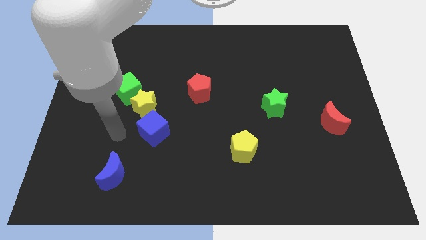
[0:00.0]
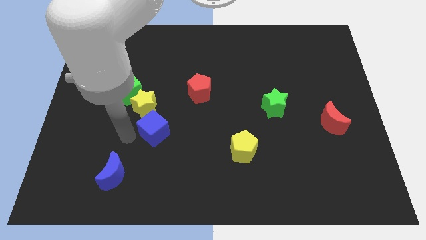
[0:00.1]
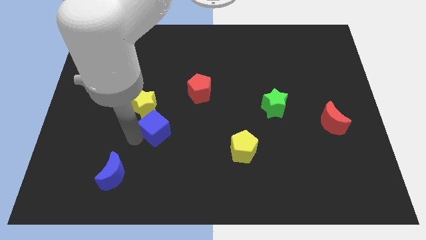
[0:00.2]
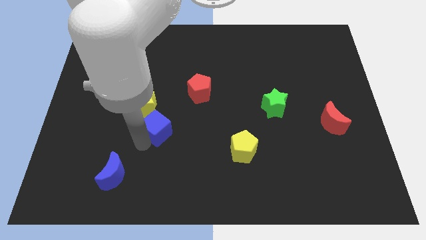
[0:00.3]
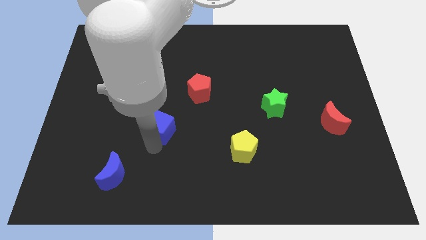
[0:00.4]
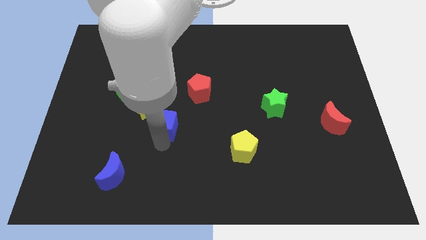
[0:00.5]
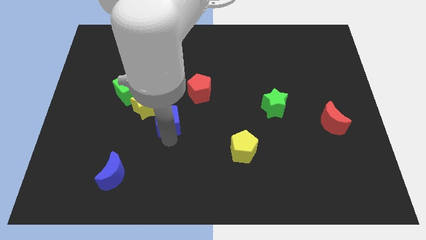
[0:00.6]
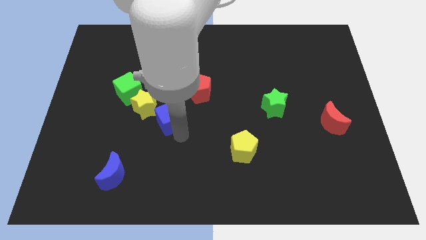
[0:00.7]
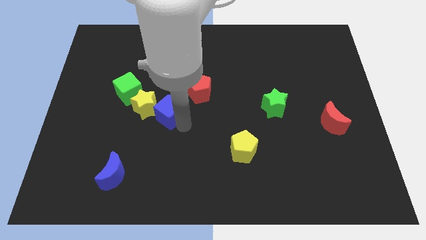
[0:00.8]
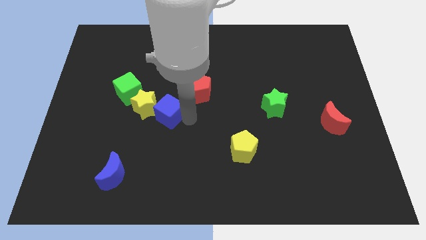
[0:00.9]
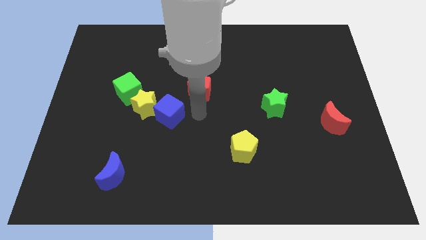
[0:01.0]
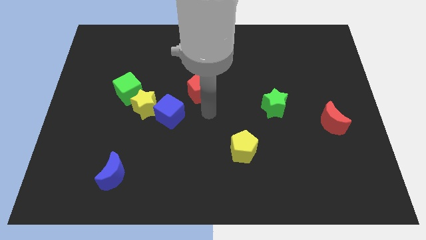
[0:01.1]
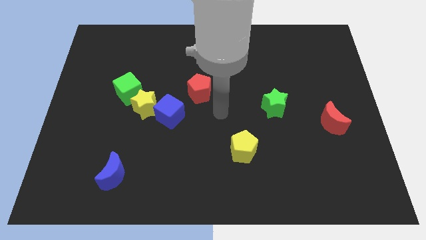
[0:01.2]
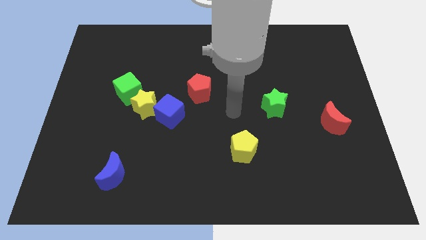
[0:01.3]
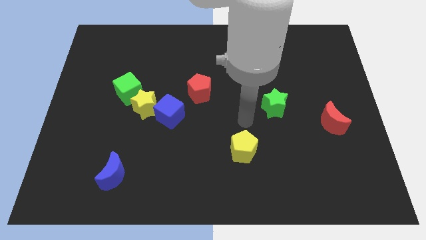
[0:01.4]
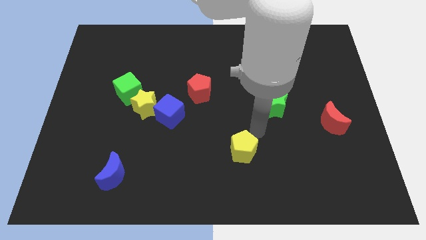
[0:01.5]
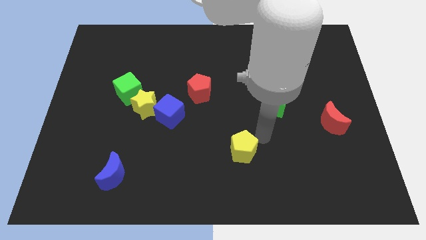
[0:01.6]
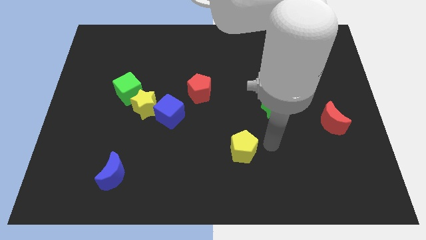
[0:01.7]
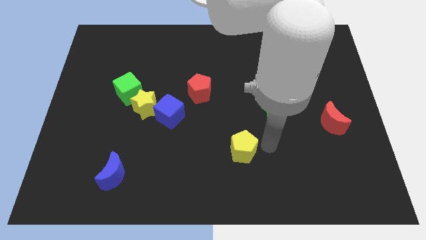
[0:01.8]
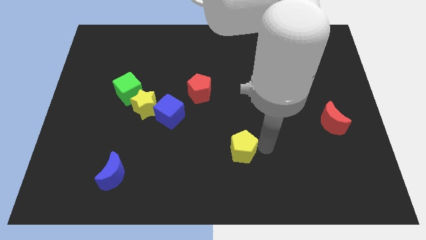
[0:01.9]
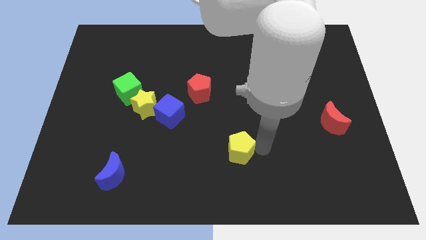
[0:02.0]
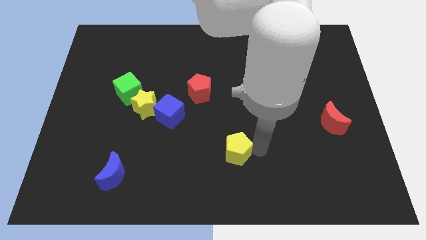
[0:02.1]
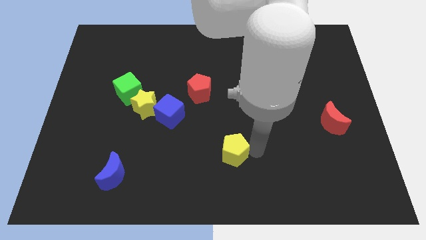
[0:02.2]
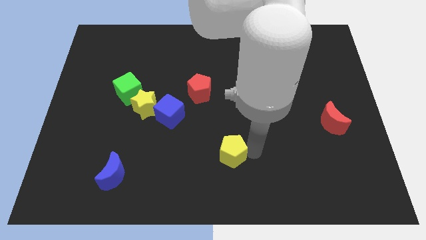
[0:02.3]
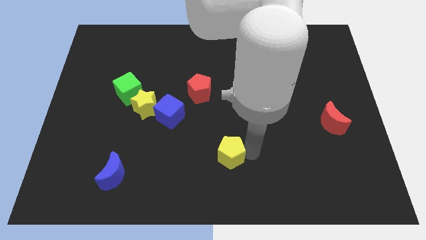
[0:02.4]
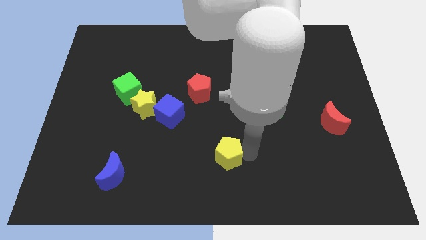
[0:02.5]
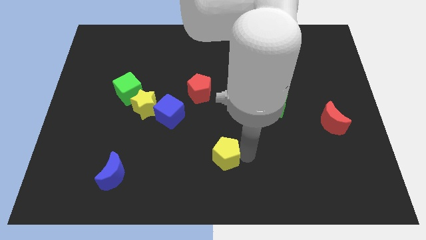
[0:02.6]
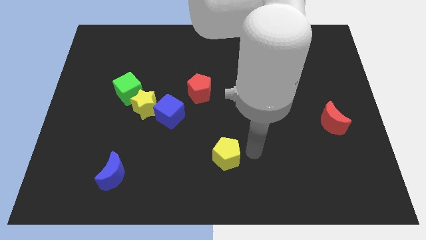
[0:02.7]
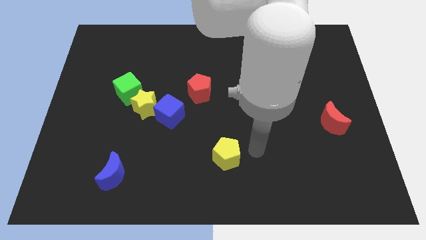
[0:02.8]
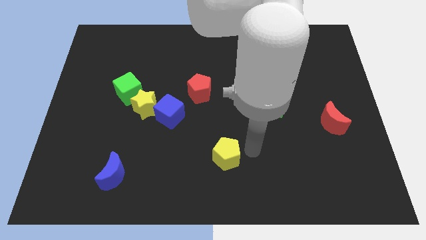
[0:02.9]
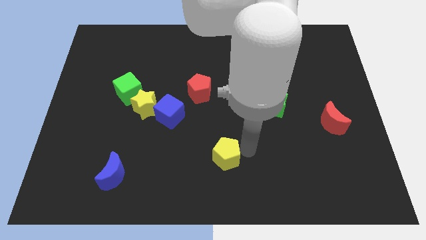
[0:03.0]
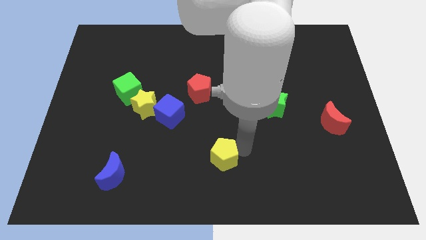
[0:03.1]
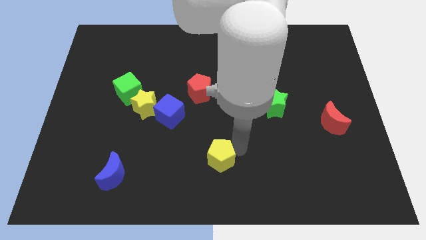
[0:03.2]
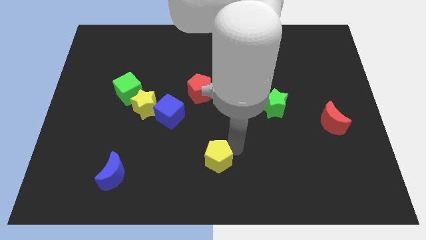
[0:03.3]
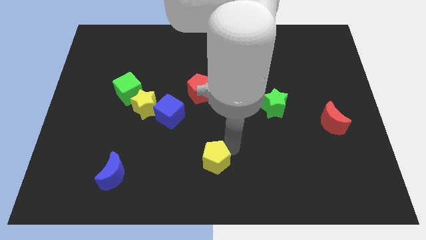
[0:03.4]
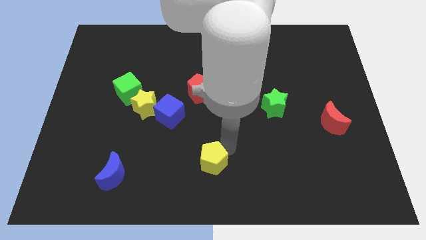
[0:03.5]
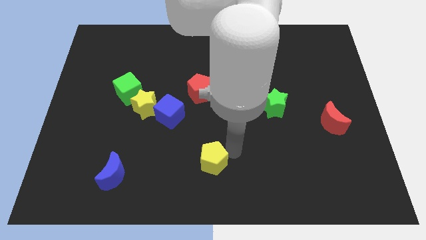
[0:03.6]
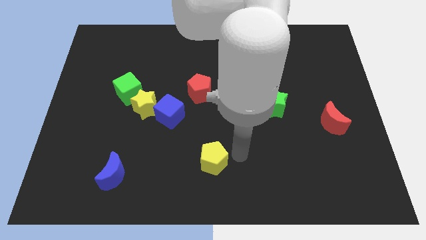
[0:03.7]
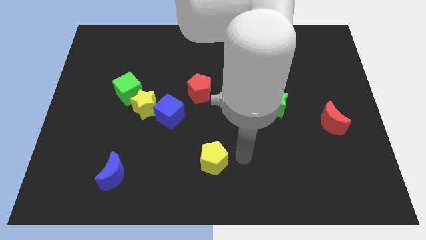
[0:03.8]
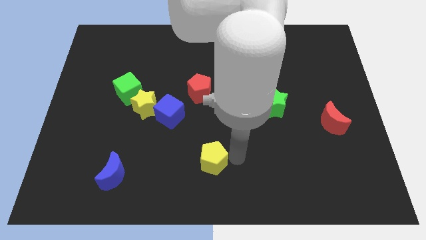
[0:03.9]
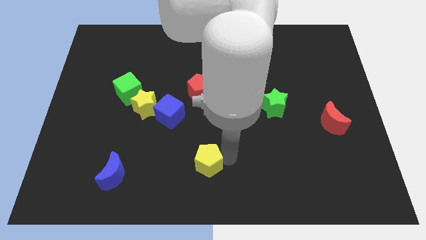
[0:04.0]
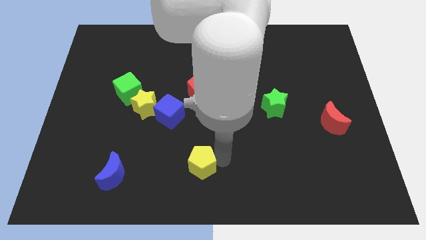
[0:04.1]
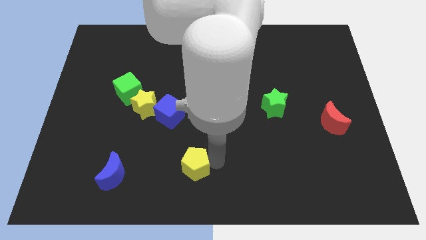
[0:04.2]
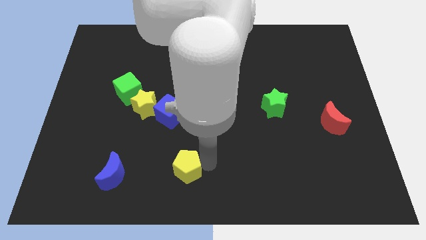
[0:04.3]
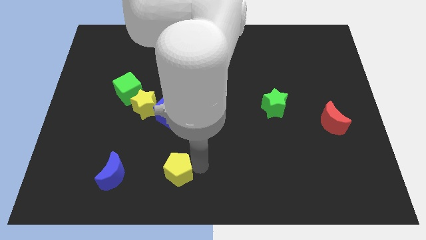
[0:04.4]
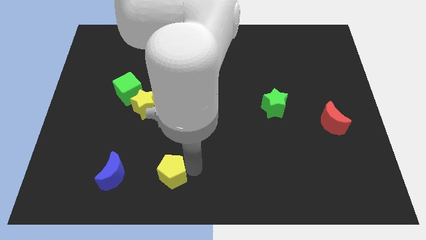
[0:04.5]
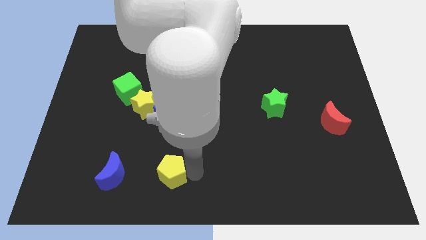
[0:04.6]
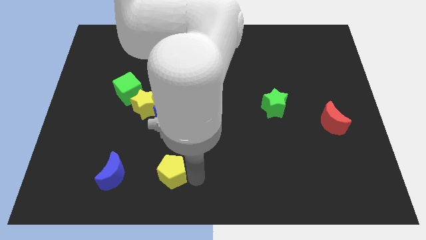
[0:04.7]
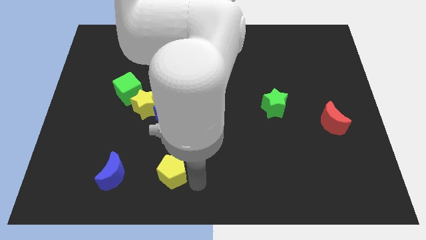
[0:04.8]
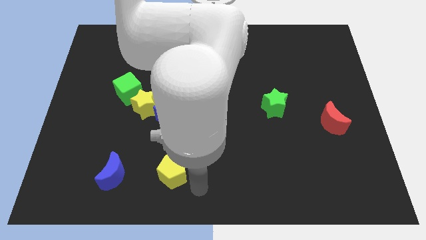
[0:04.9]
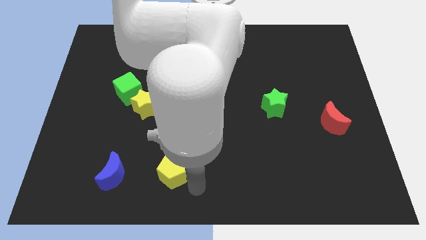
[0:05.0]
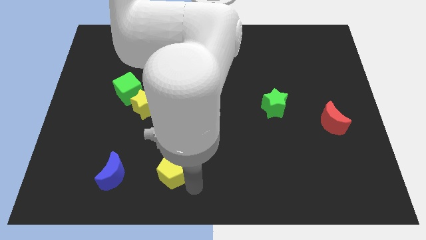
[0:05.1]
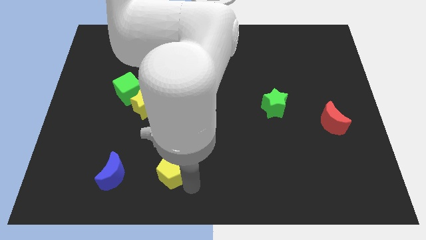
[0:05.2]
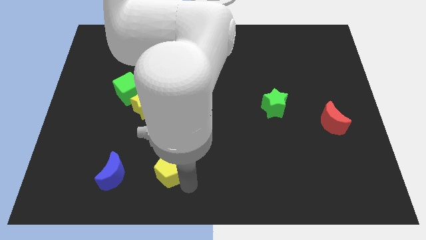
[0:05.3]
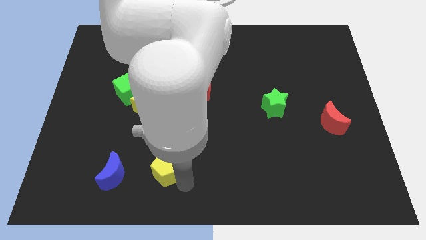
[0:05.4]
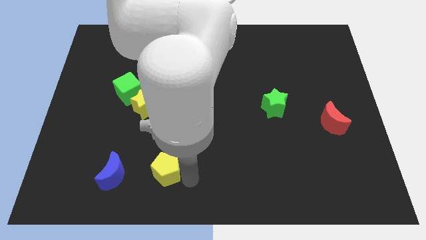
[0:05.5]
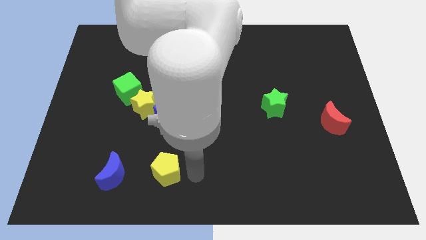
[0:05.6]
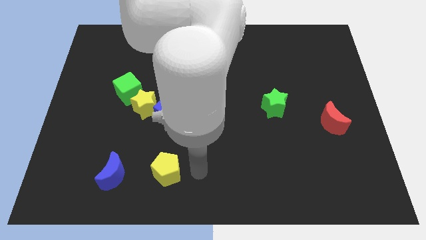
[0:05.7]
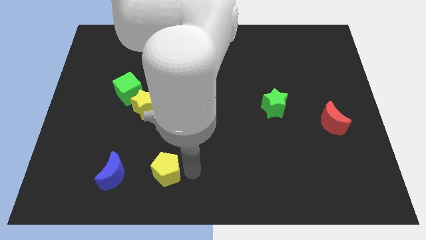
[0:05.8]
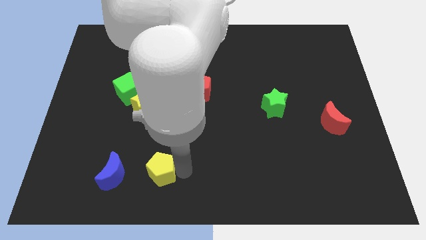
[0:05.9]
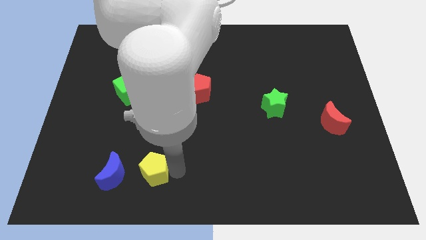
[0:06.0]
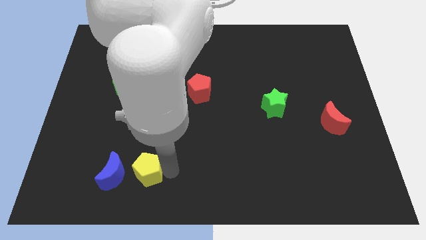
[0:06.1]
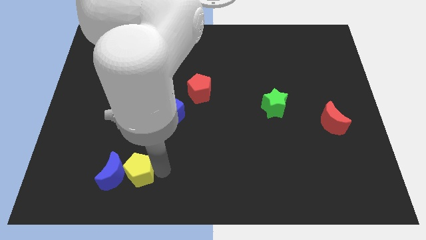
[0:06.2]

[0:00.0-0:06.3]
put the yellow pentagon towards the blue moon
